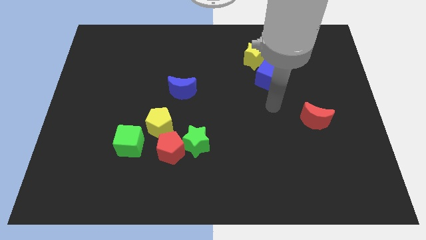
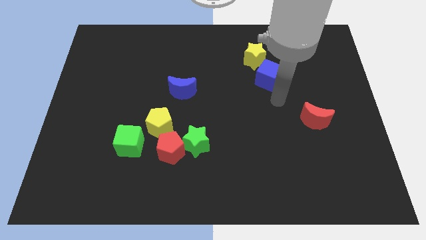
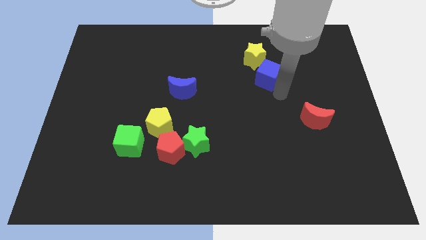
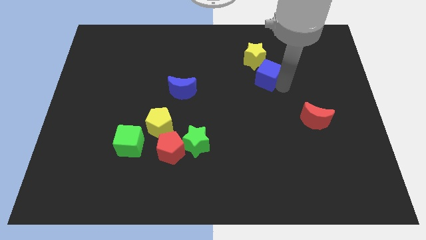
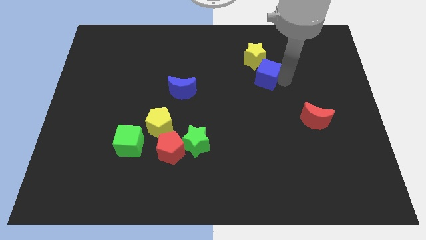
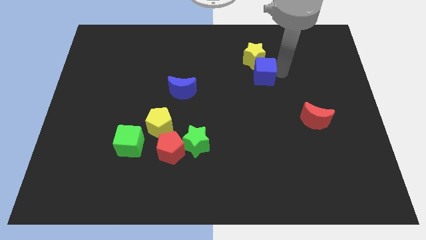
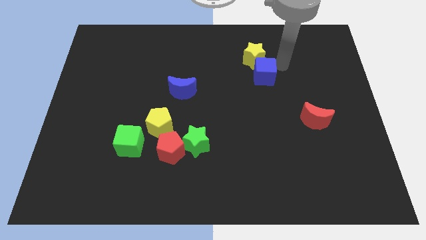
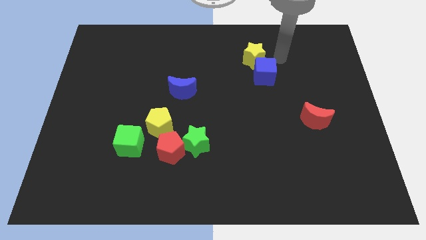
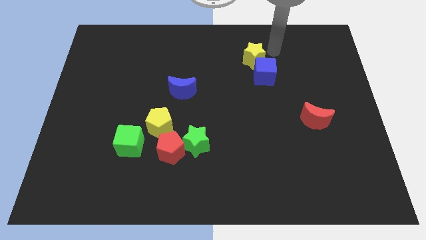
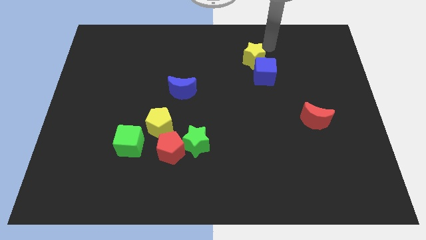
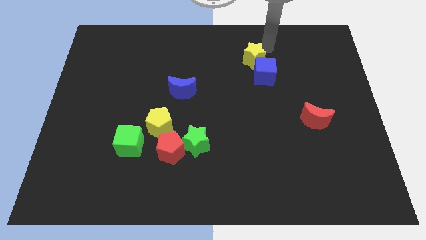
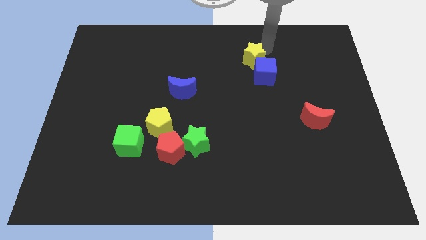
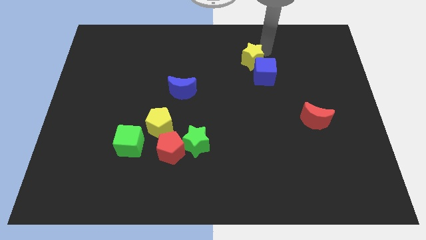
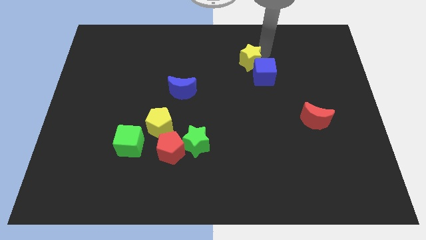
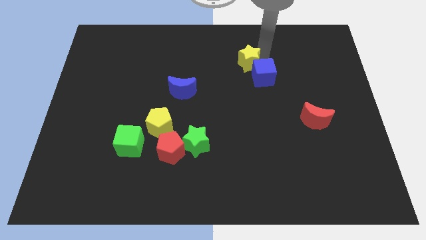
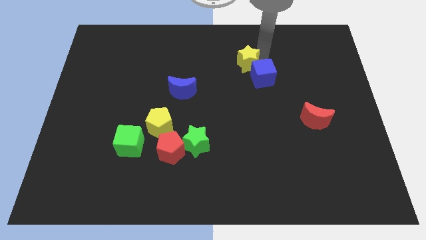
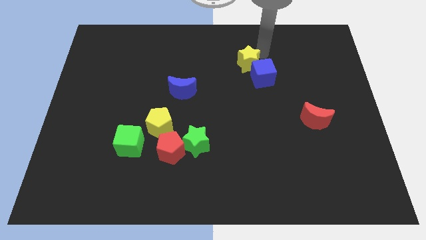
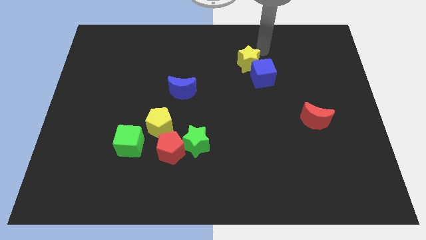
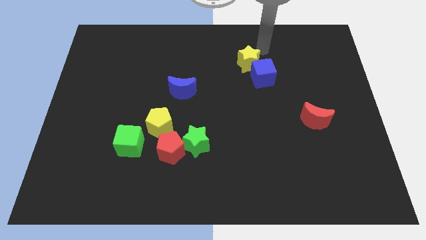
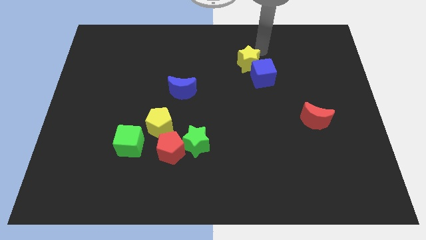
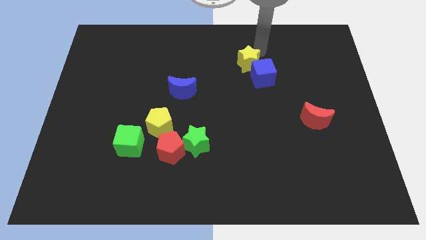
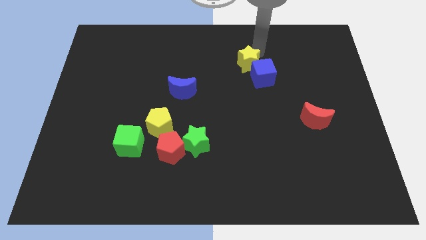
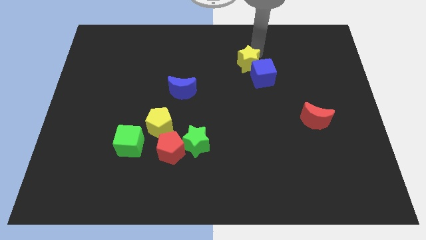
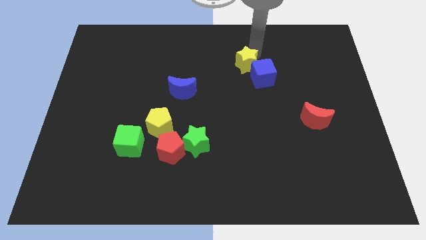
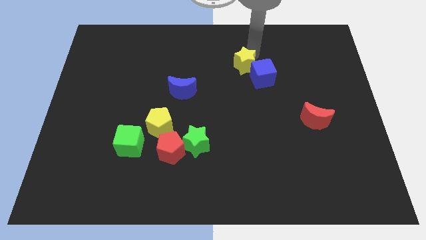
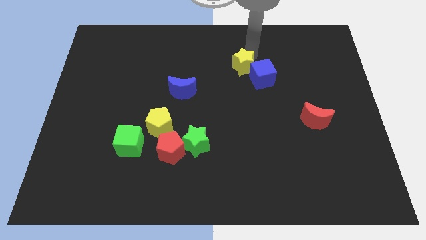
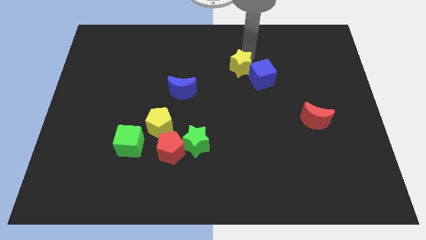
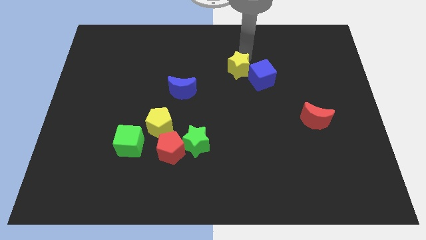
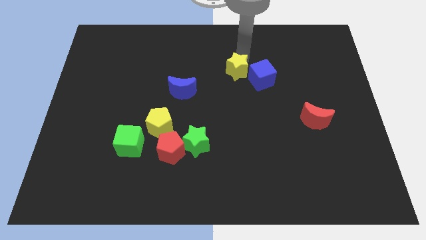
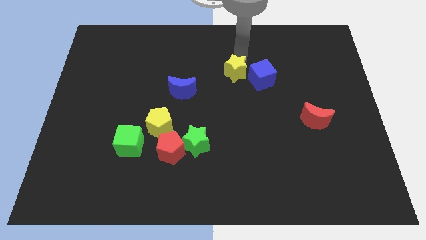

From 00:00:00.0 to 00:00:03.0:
slide the yellow star downwards and left diagonally a bit

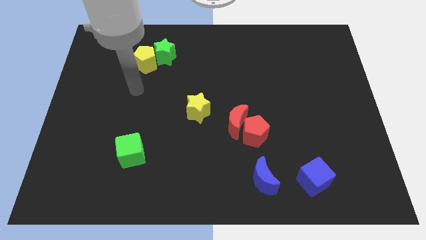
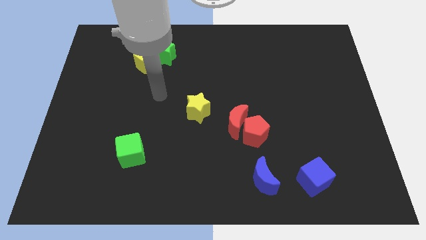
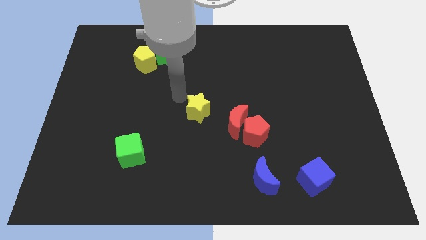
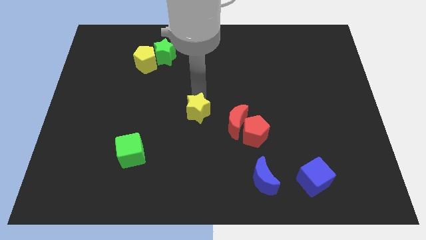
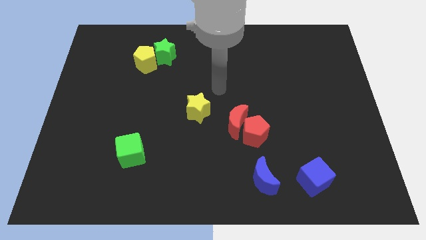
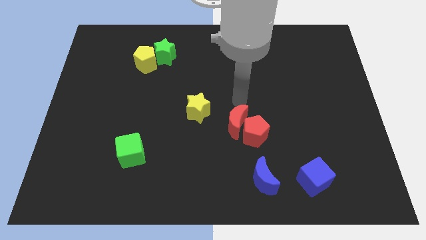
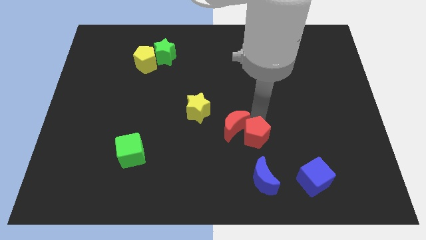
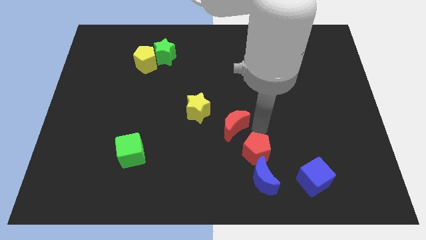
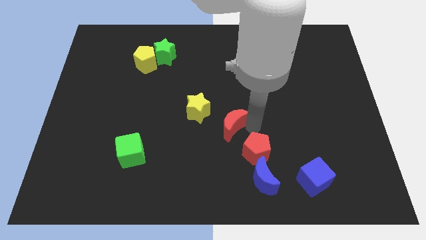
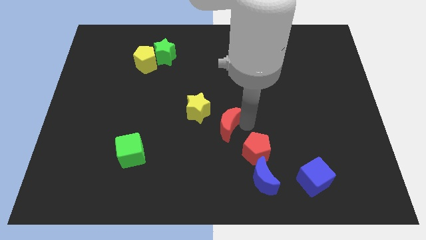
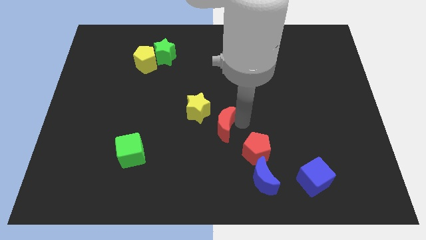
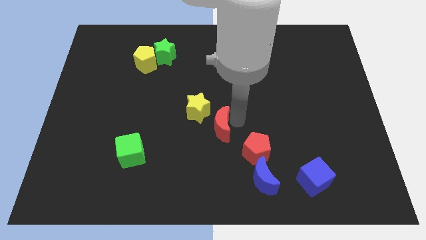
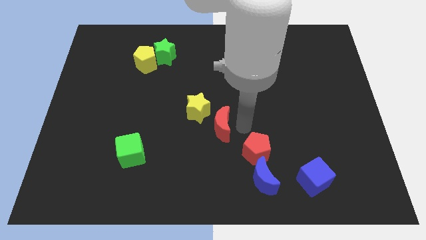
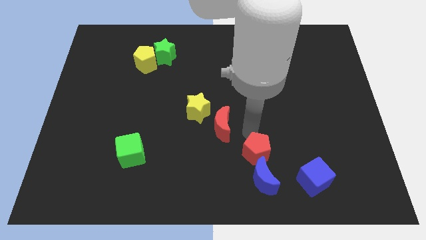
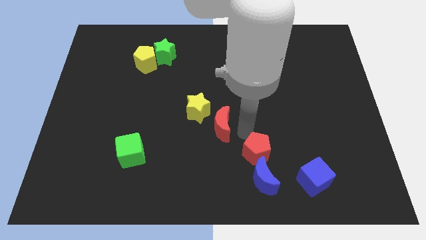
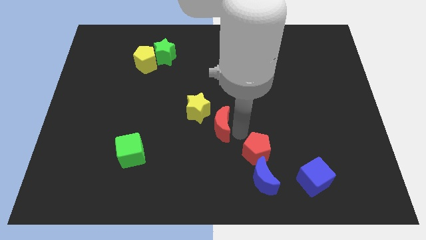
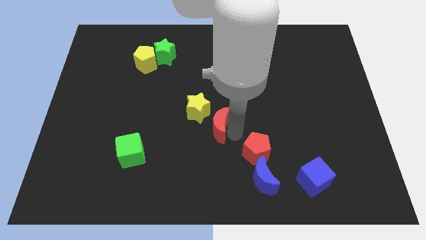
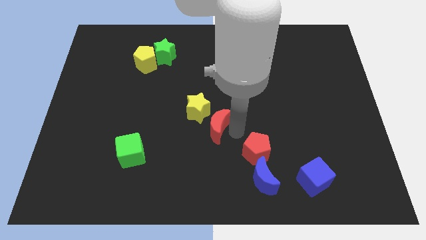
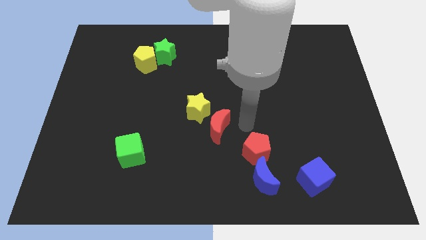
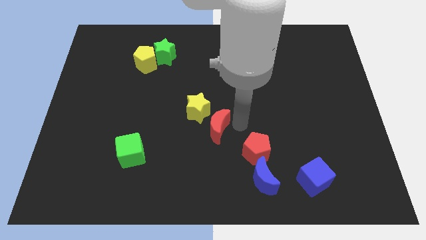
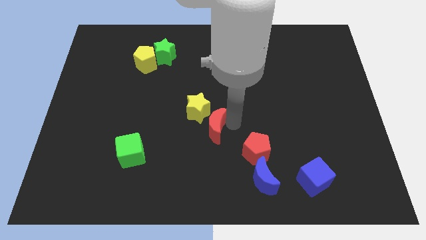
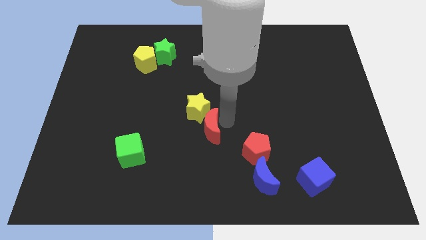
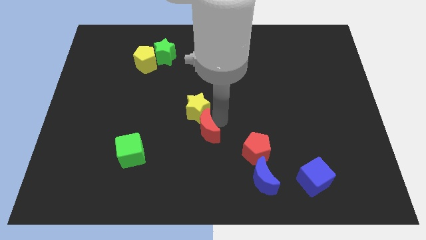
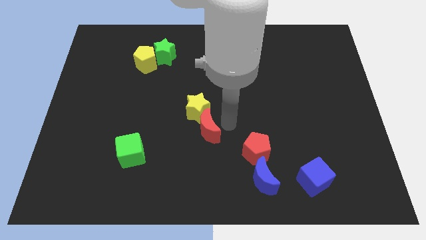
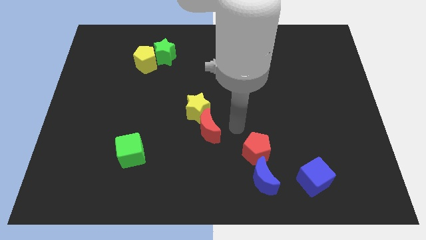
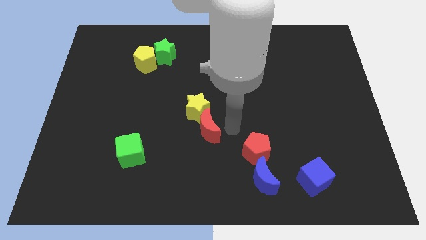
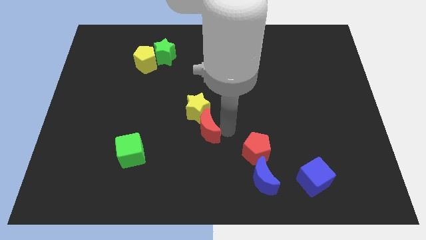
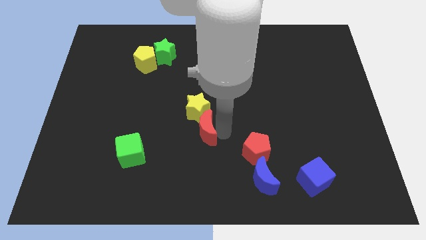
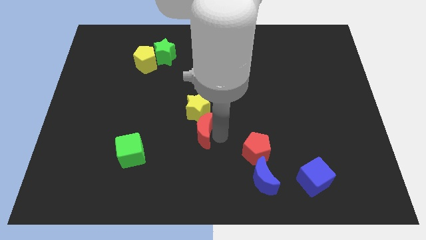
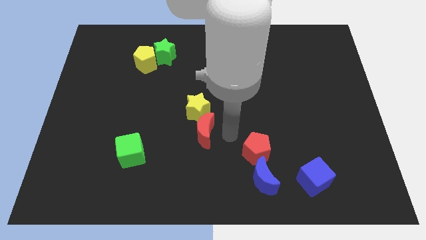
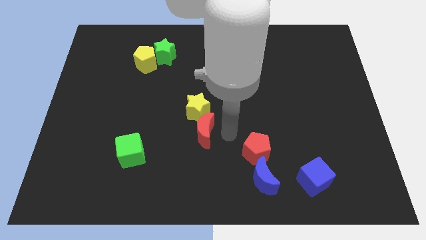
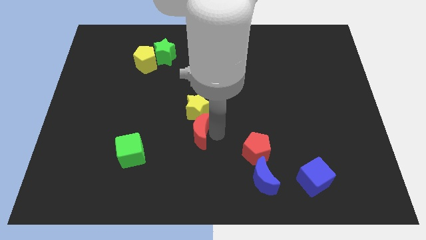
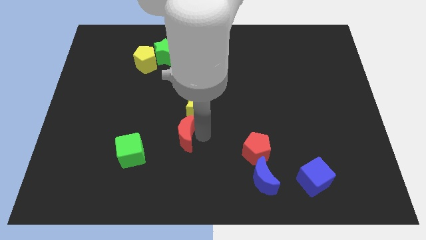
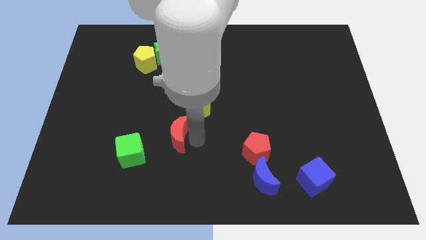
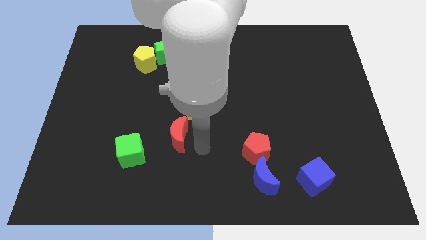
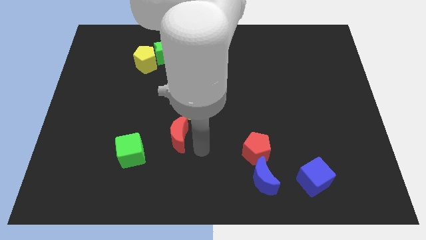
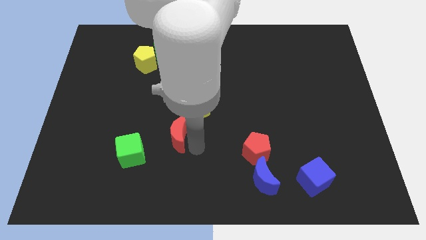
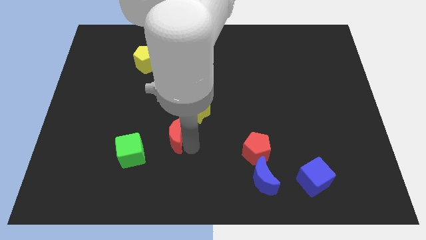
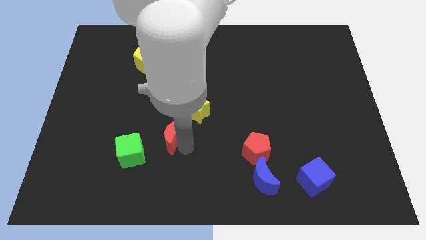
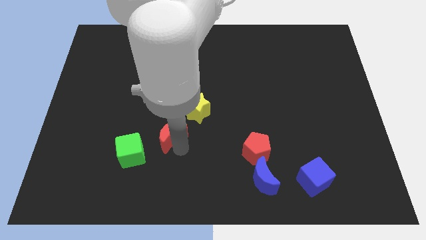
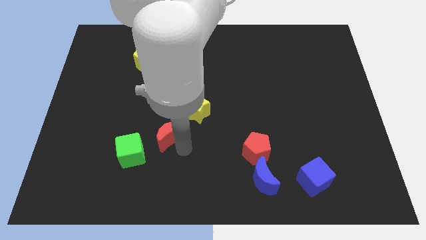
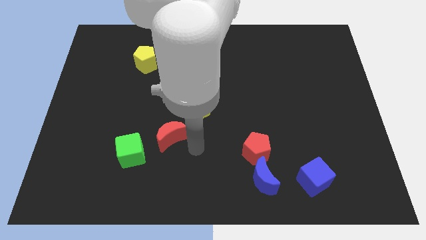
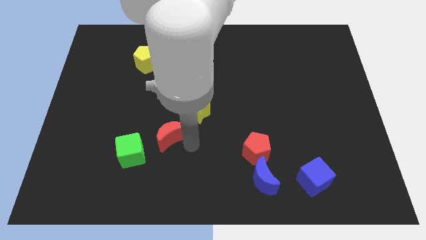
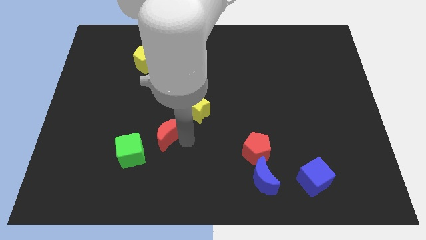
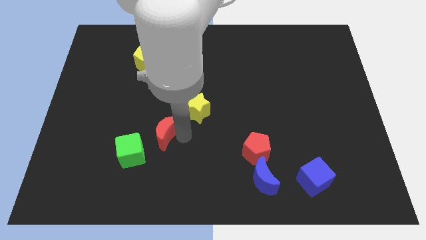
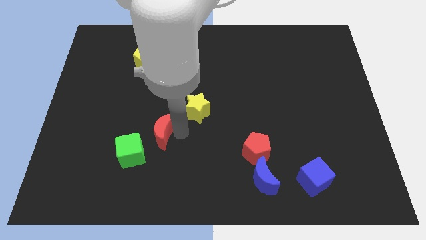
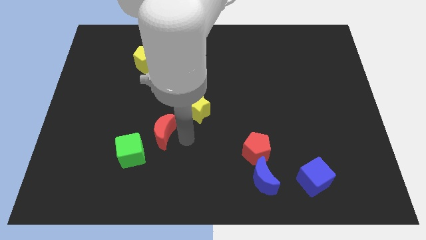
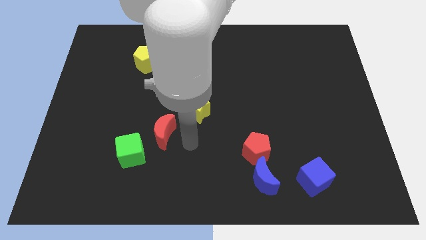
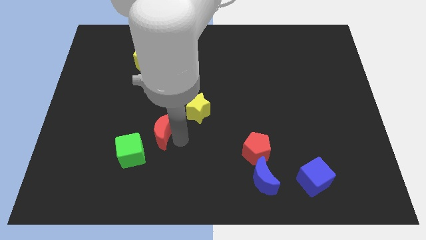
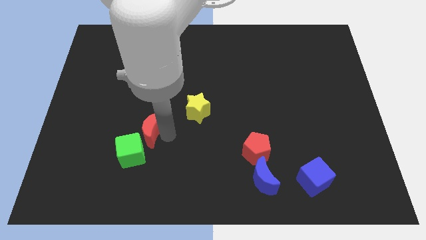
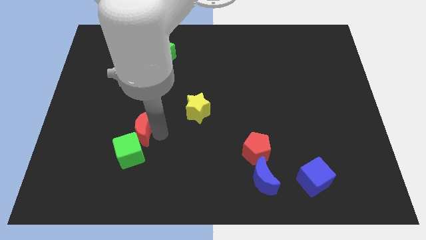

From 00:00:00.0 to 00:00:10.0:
slide the red moon left

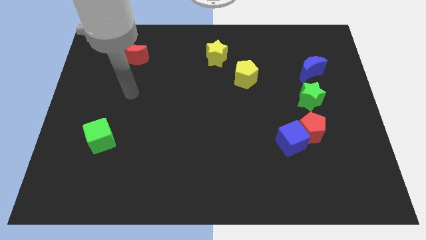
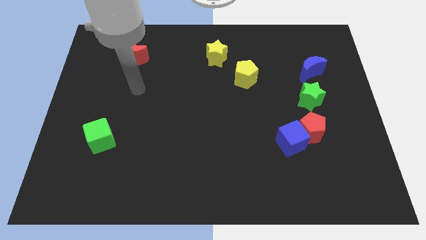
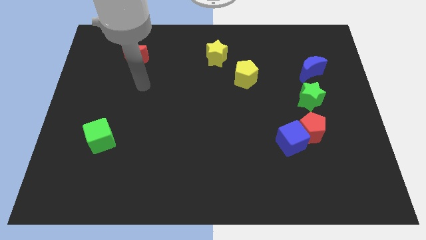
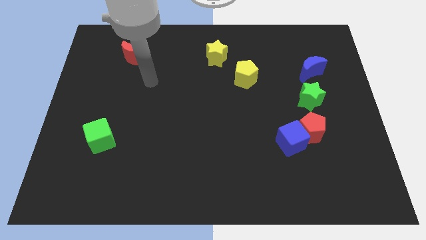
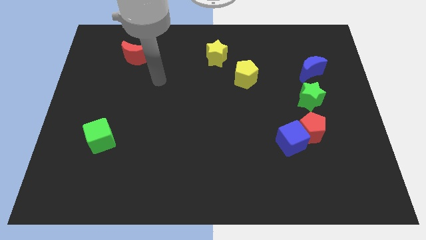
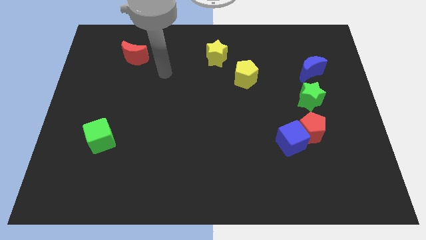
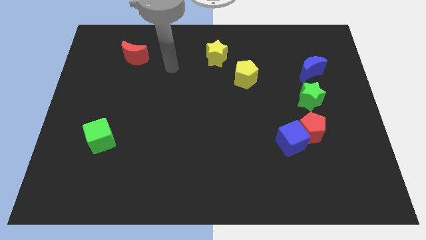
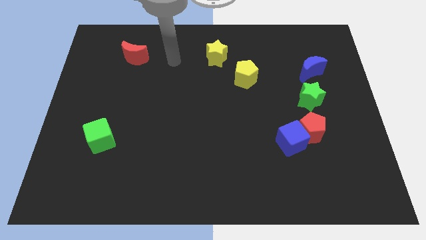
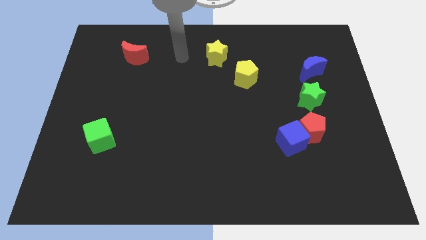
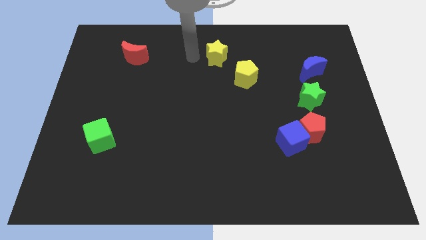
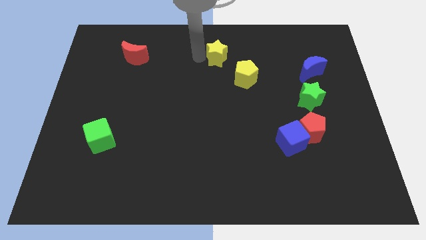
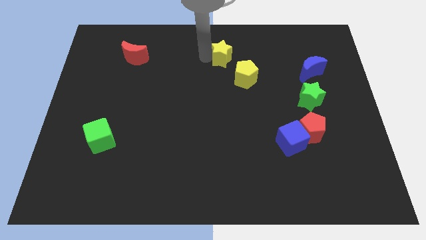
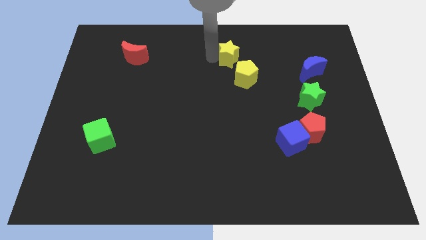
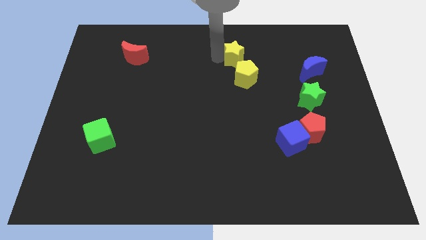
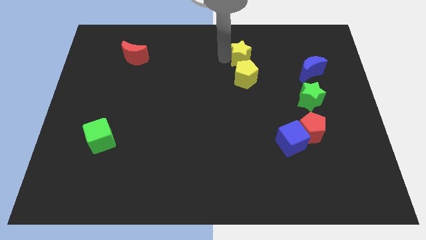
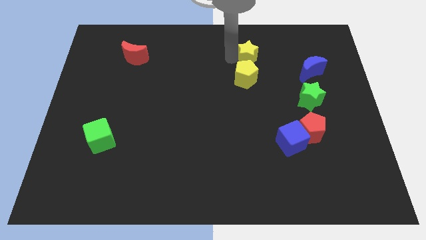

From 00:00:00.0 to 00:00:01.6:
slightly push the yellow star to the right
